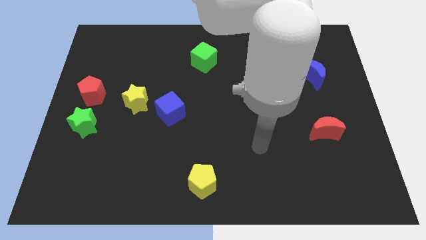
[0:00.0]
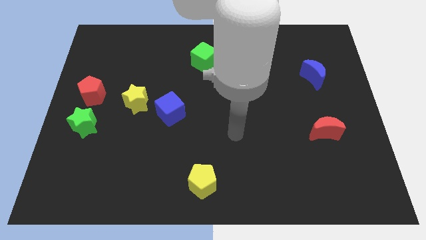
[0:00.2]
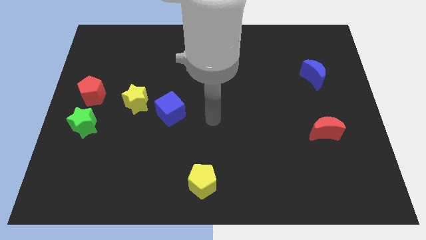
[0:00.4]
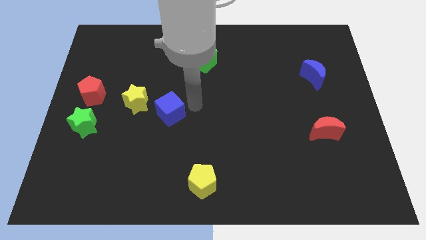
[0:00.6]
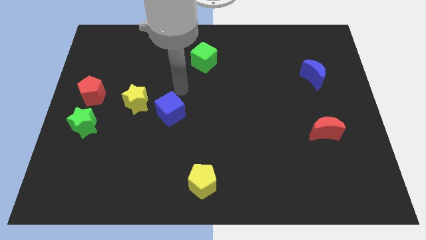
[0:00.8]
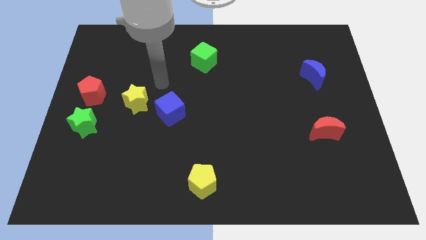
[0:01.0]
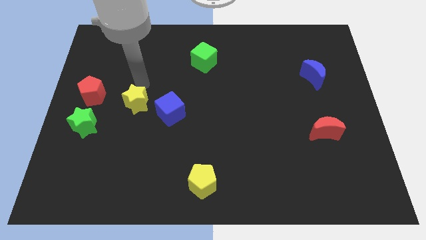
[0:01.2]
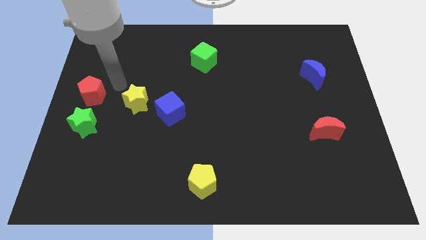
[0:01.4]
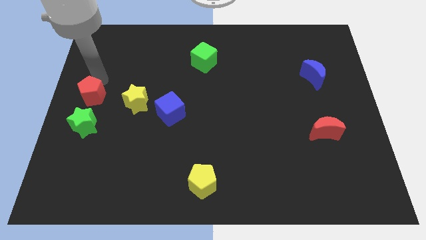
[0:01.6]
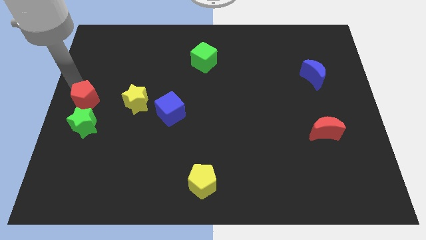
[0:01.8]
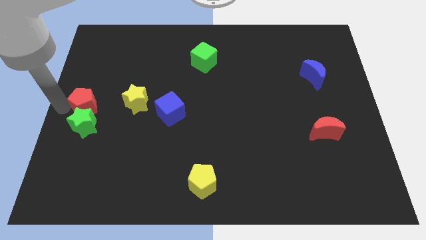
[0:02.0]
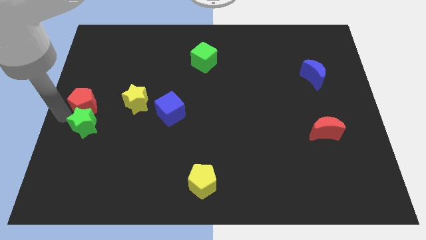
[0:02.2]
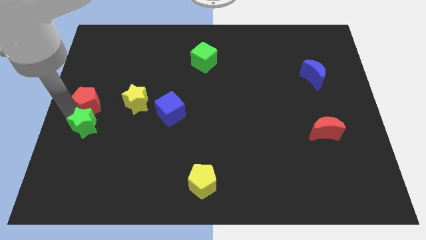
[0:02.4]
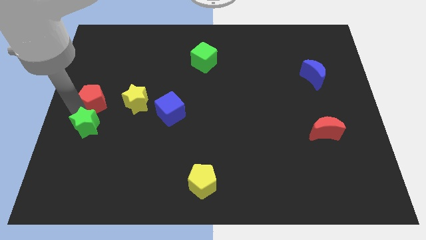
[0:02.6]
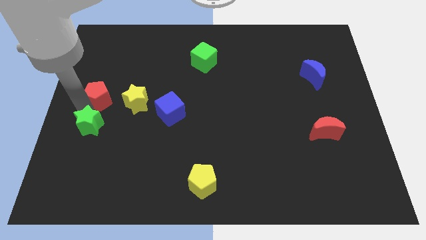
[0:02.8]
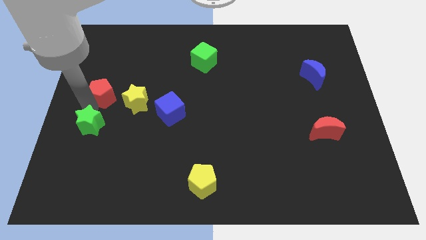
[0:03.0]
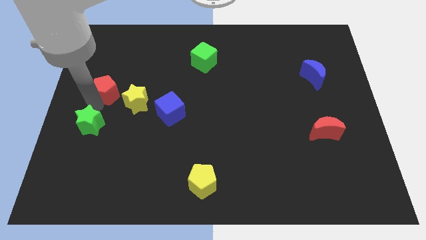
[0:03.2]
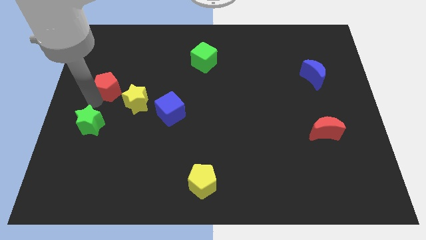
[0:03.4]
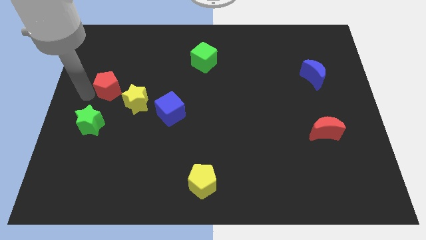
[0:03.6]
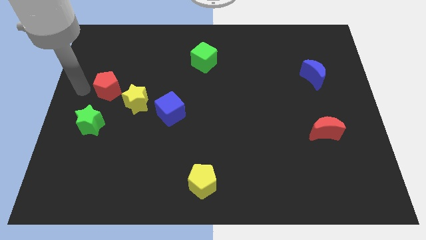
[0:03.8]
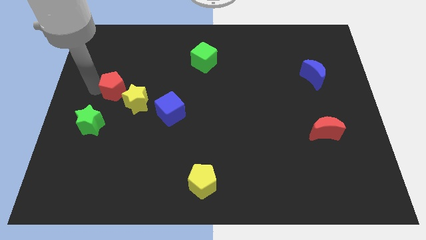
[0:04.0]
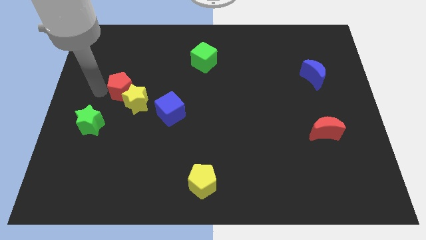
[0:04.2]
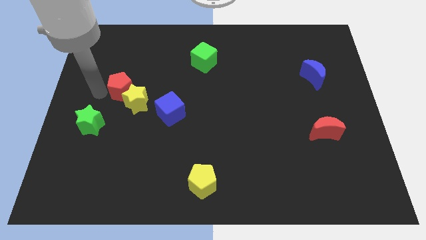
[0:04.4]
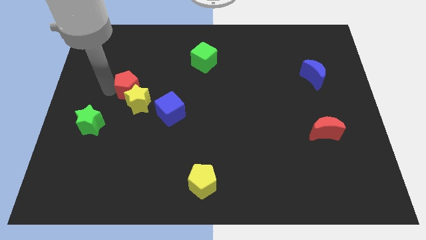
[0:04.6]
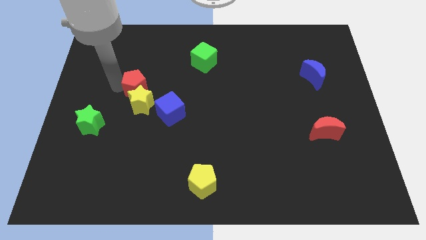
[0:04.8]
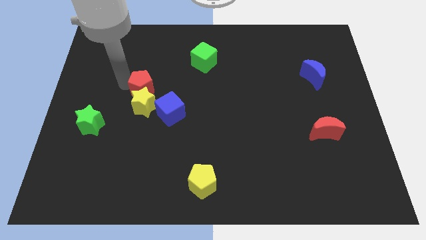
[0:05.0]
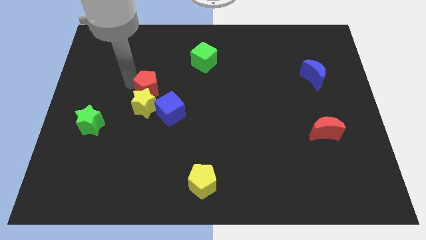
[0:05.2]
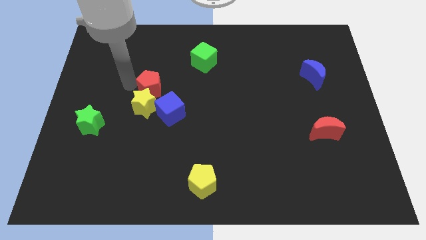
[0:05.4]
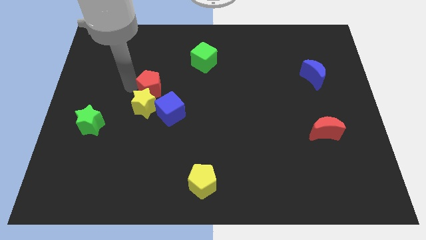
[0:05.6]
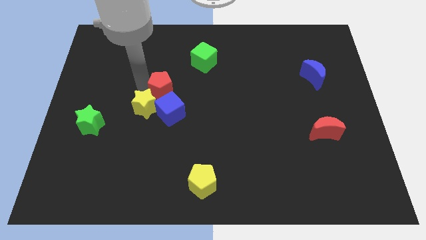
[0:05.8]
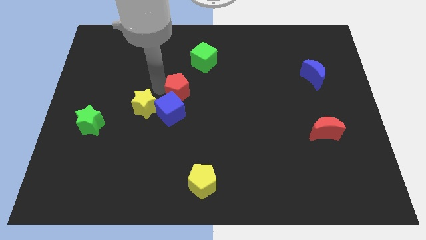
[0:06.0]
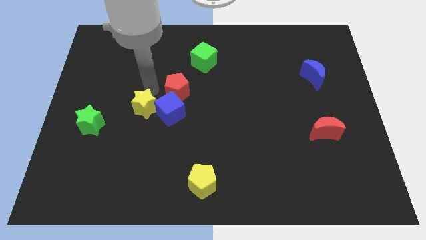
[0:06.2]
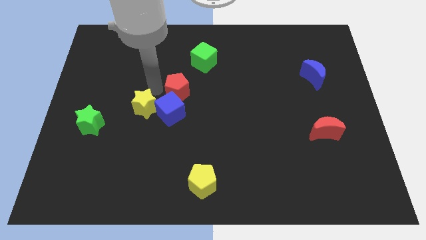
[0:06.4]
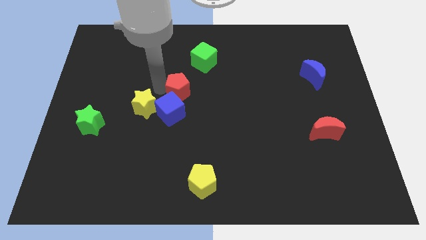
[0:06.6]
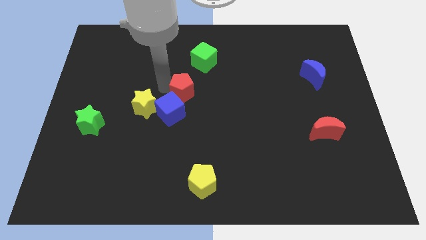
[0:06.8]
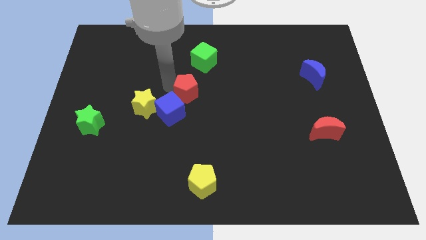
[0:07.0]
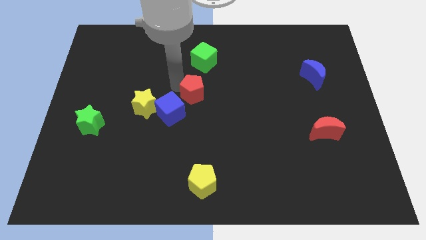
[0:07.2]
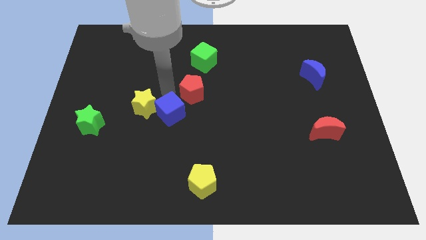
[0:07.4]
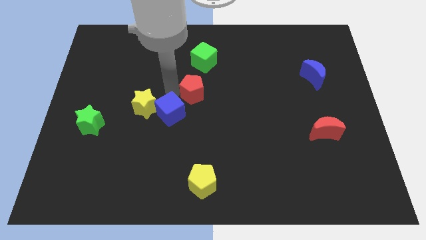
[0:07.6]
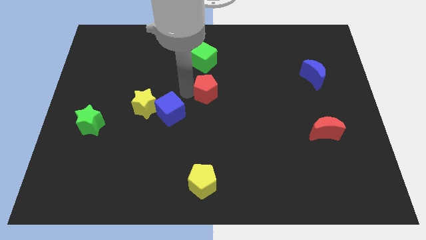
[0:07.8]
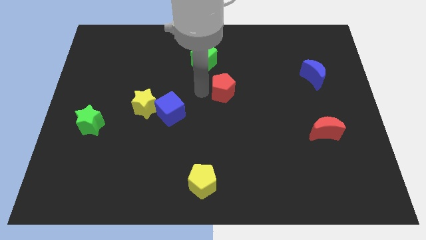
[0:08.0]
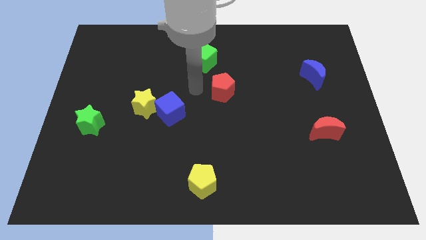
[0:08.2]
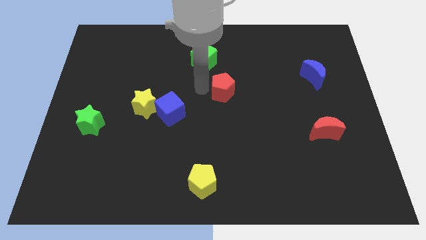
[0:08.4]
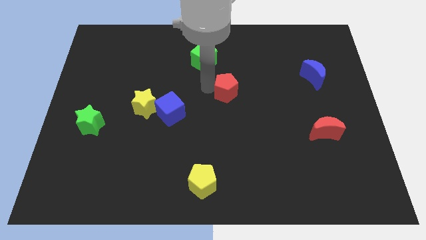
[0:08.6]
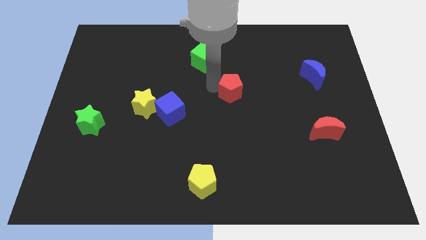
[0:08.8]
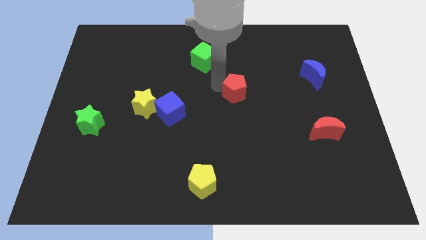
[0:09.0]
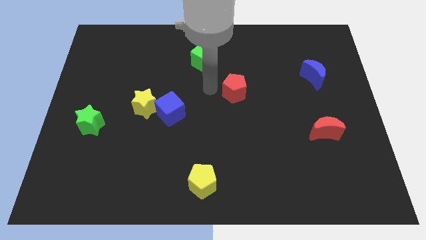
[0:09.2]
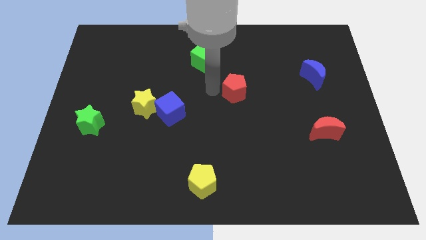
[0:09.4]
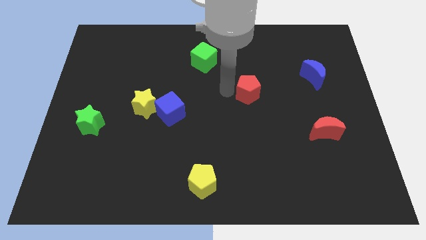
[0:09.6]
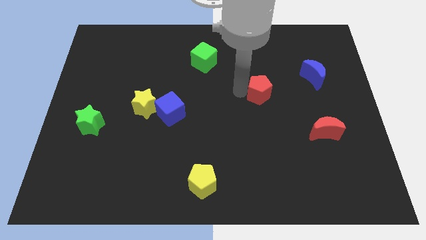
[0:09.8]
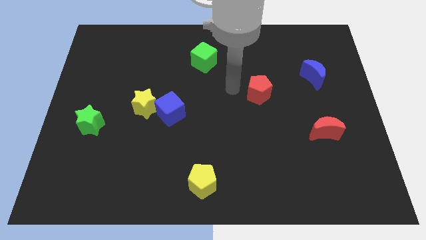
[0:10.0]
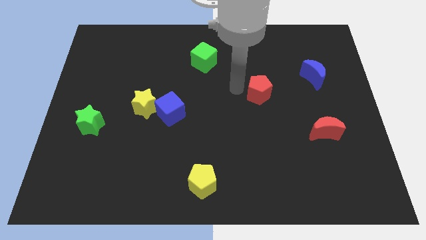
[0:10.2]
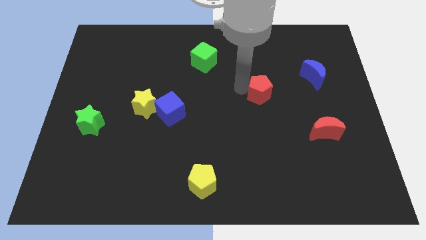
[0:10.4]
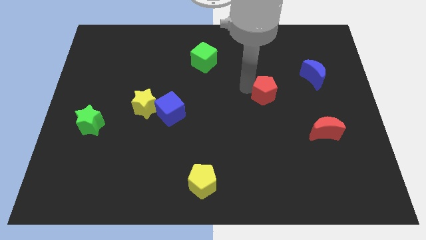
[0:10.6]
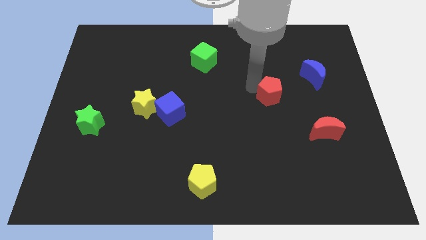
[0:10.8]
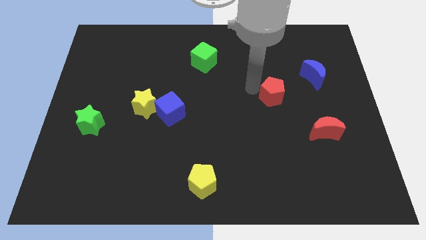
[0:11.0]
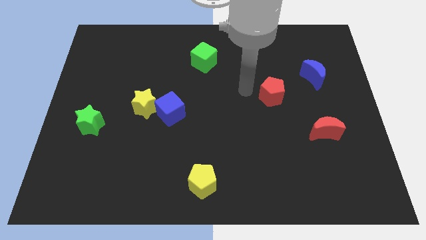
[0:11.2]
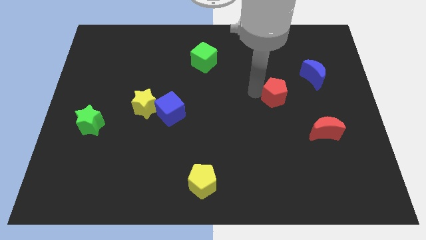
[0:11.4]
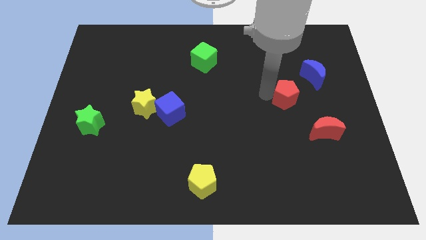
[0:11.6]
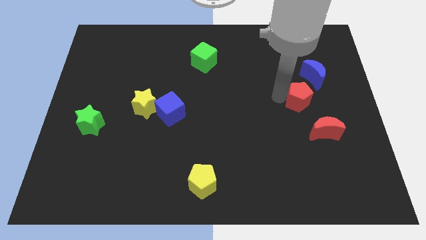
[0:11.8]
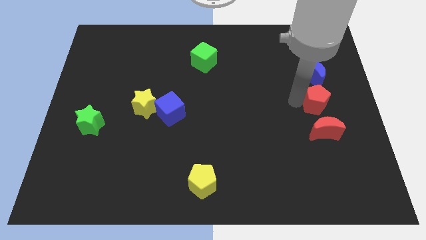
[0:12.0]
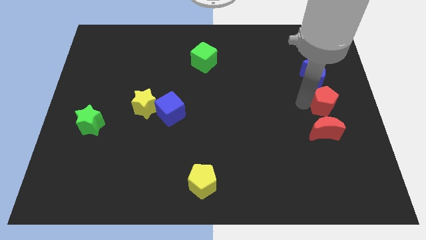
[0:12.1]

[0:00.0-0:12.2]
push the red pentagon to the right side
